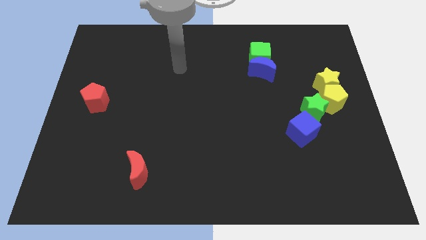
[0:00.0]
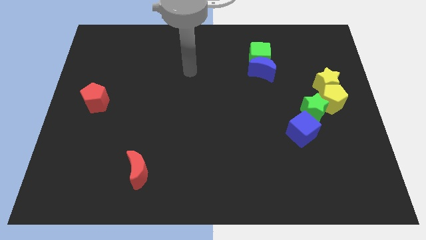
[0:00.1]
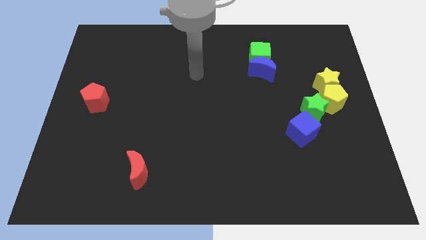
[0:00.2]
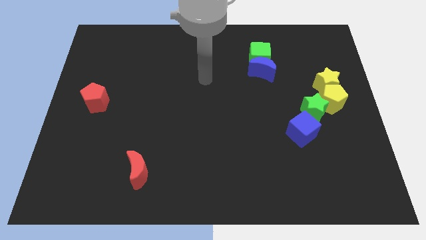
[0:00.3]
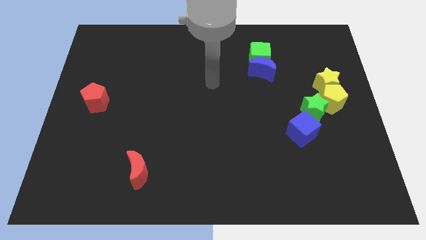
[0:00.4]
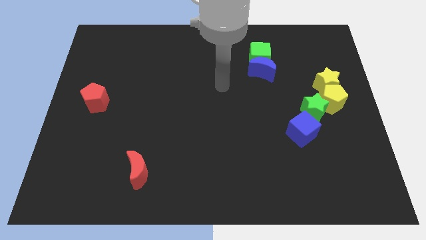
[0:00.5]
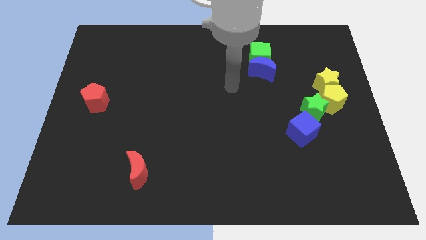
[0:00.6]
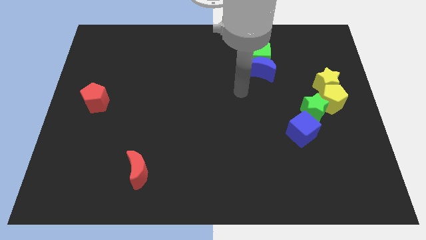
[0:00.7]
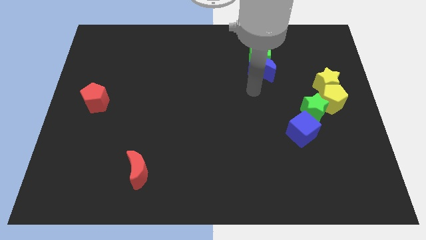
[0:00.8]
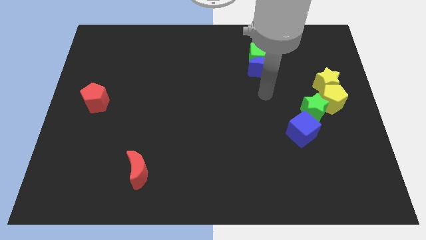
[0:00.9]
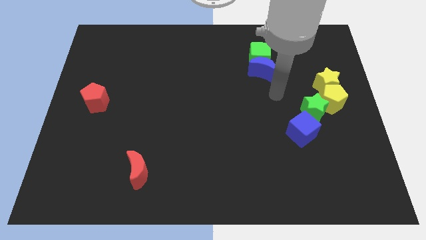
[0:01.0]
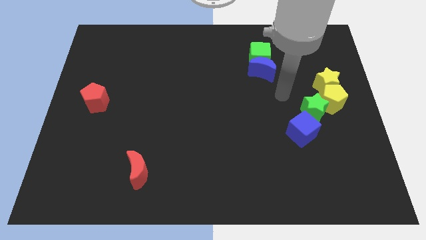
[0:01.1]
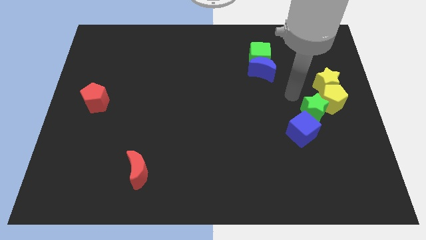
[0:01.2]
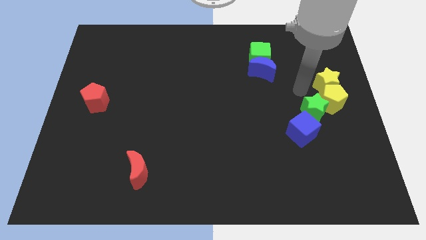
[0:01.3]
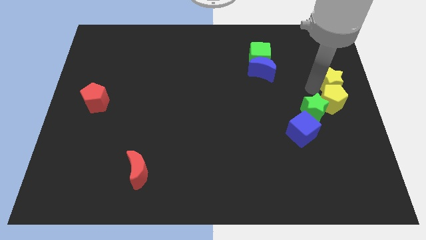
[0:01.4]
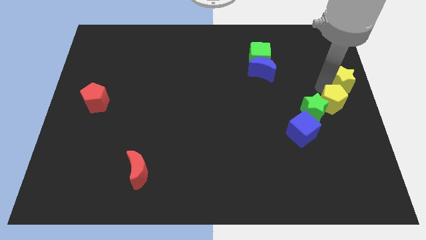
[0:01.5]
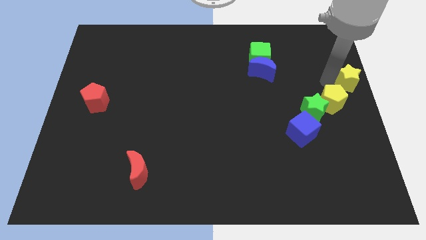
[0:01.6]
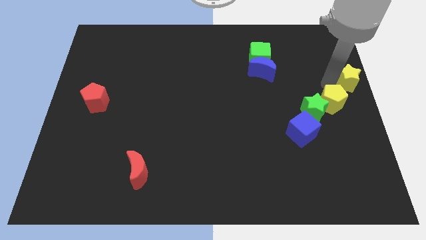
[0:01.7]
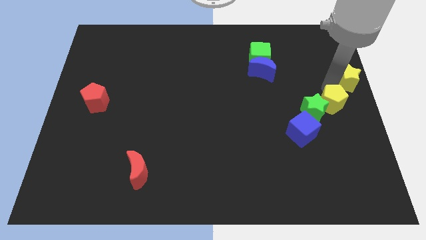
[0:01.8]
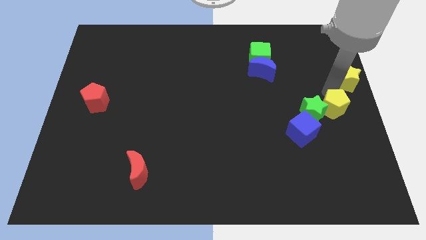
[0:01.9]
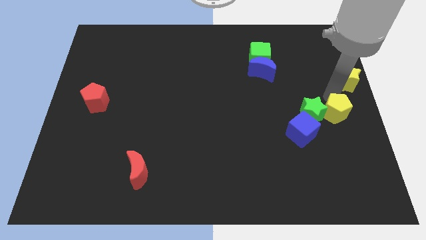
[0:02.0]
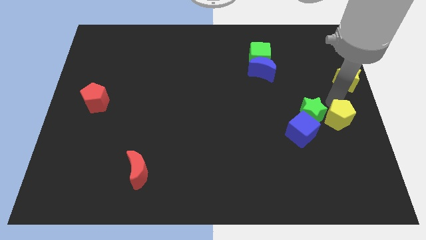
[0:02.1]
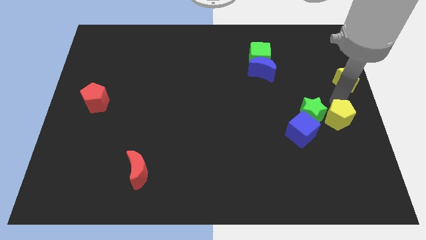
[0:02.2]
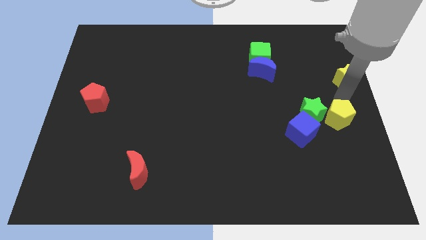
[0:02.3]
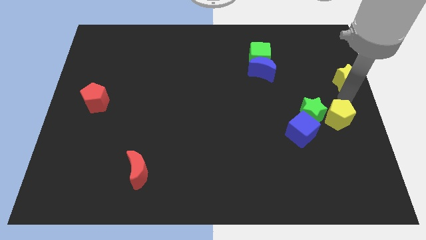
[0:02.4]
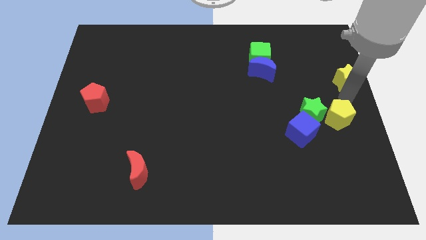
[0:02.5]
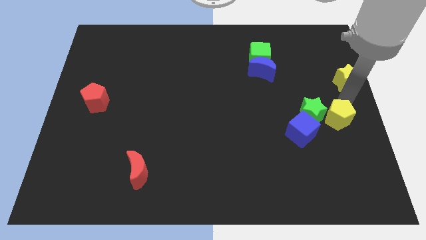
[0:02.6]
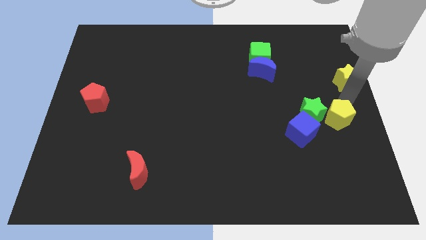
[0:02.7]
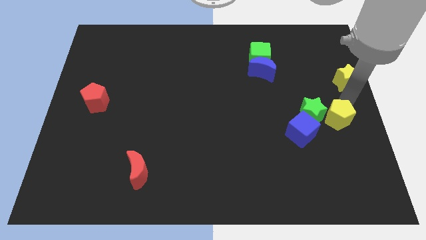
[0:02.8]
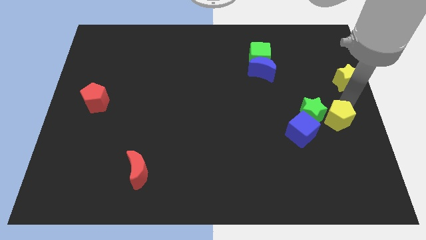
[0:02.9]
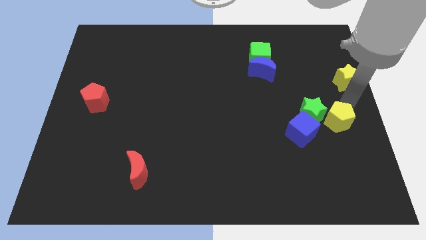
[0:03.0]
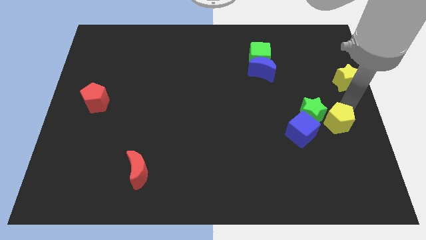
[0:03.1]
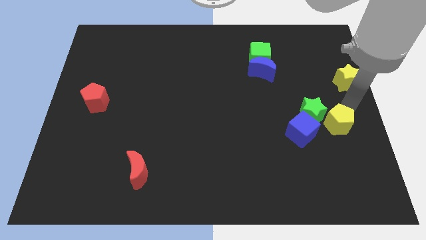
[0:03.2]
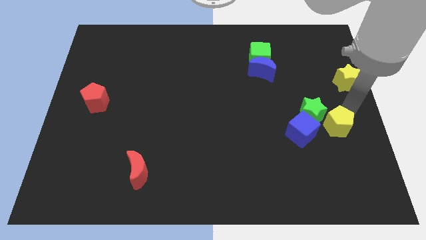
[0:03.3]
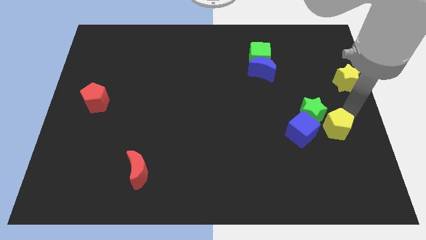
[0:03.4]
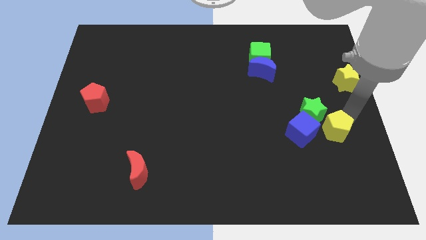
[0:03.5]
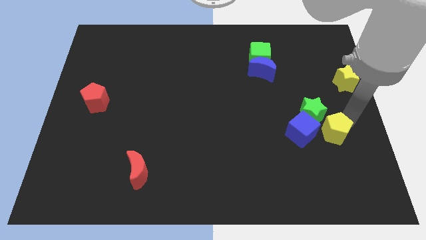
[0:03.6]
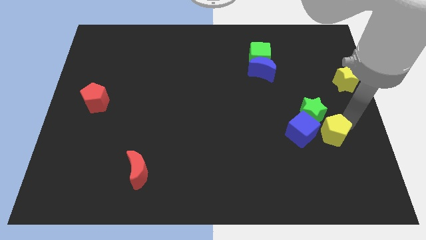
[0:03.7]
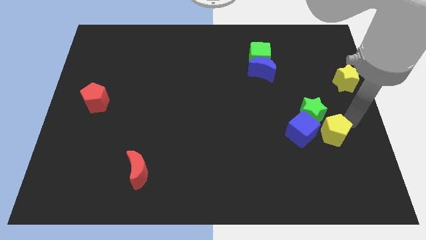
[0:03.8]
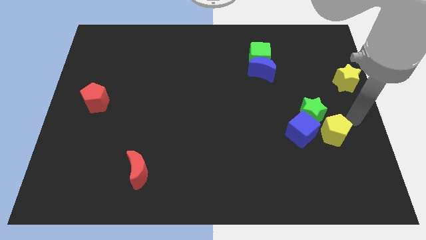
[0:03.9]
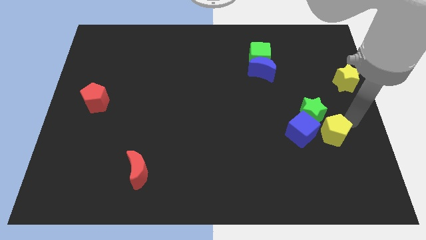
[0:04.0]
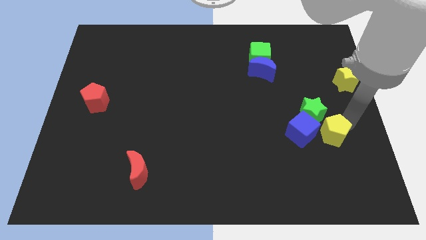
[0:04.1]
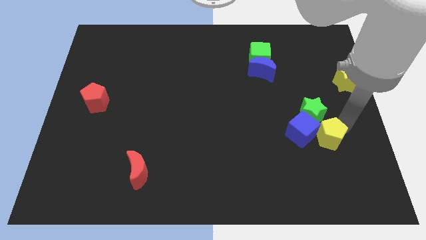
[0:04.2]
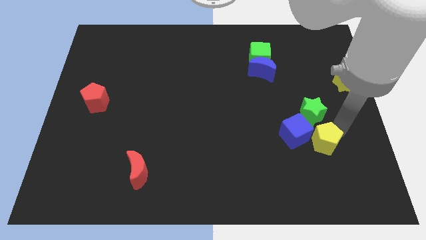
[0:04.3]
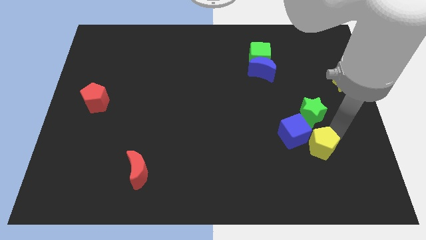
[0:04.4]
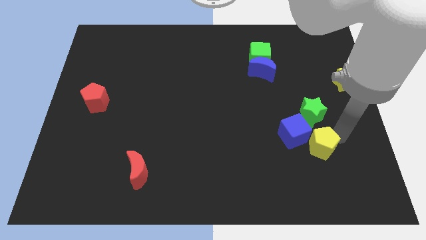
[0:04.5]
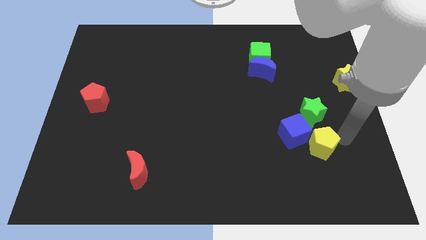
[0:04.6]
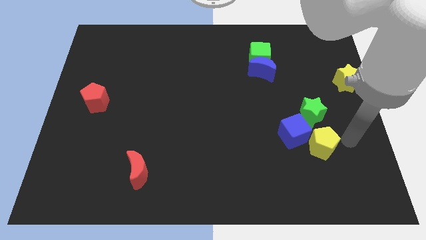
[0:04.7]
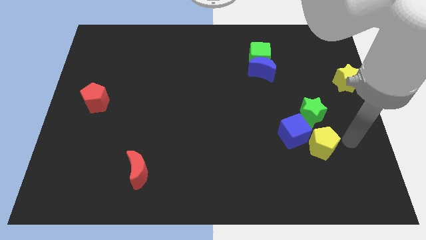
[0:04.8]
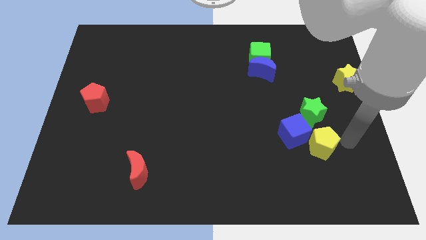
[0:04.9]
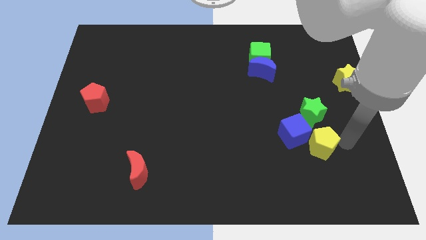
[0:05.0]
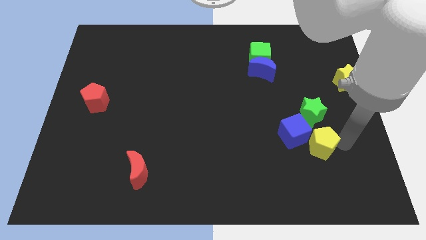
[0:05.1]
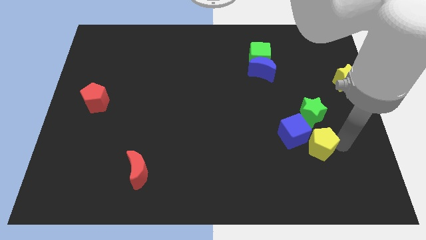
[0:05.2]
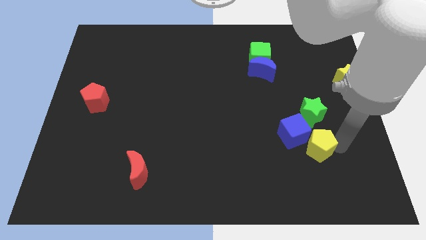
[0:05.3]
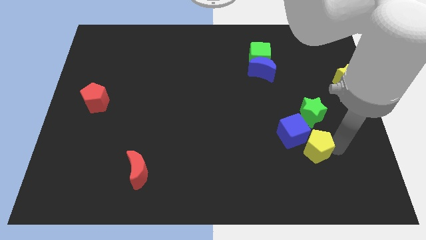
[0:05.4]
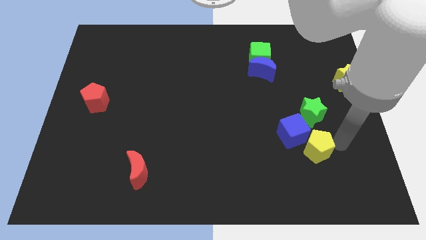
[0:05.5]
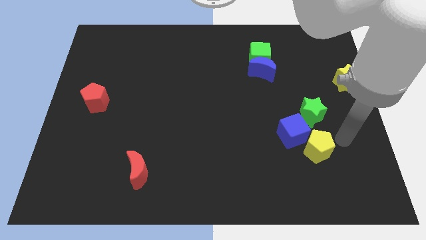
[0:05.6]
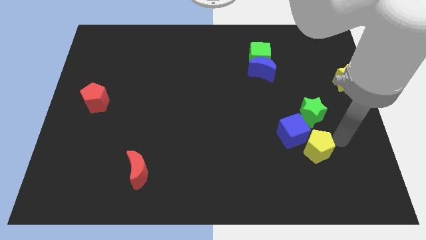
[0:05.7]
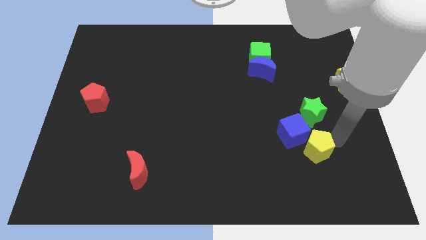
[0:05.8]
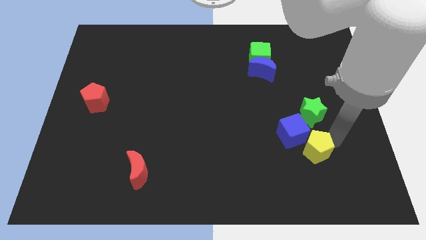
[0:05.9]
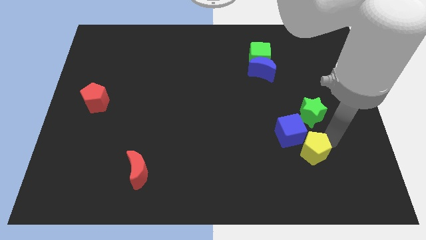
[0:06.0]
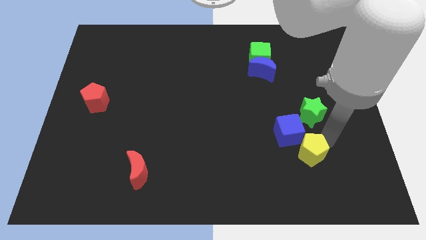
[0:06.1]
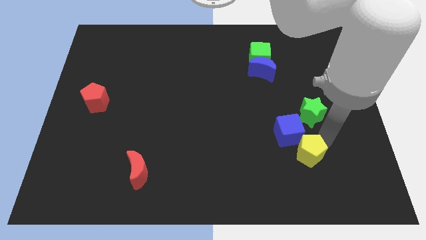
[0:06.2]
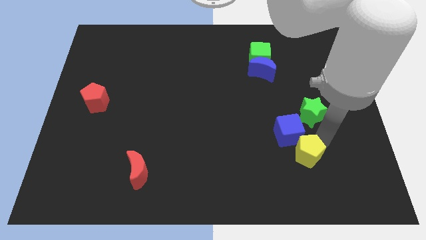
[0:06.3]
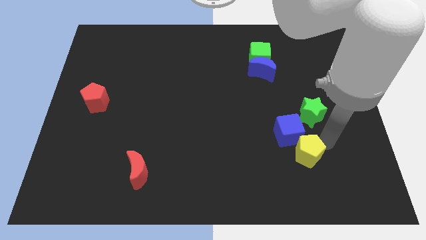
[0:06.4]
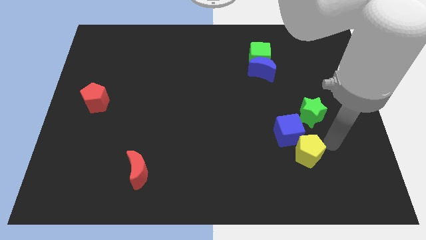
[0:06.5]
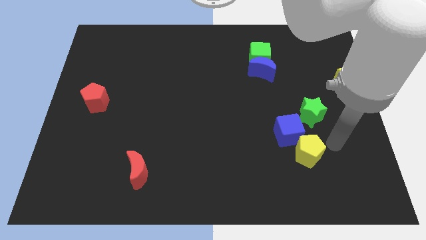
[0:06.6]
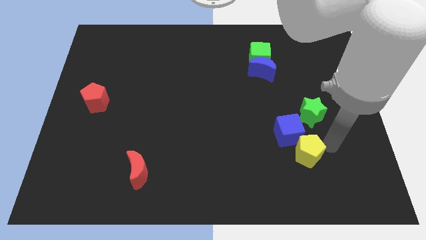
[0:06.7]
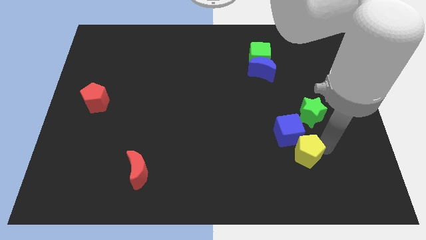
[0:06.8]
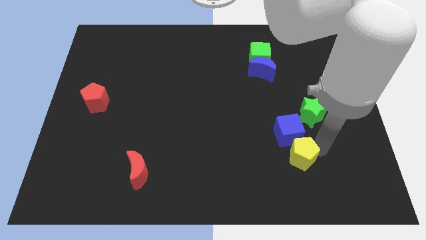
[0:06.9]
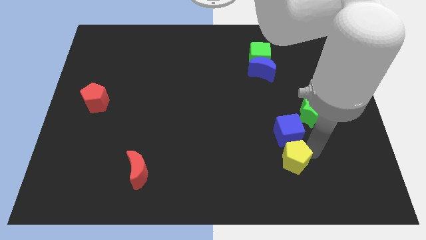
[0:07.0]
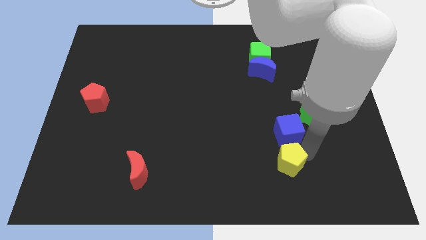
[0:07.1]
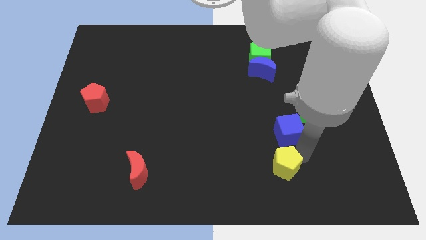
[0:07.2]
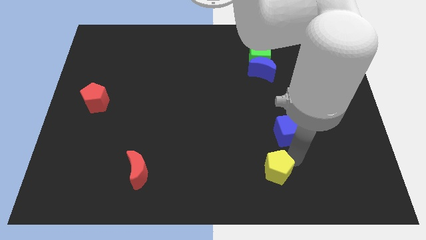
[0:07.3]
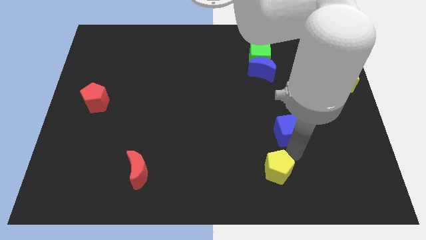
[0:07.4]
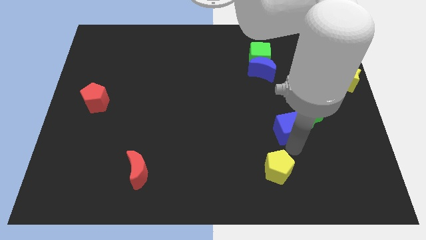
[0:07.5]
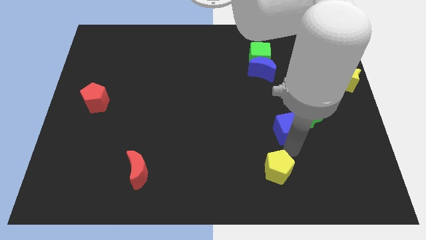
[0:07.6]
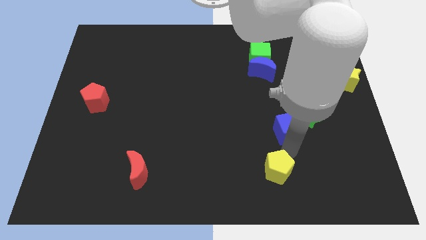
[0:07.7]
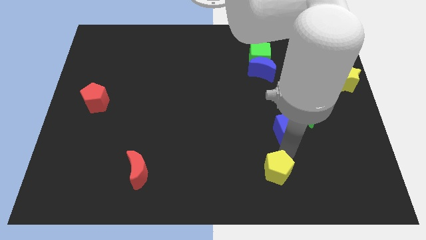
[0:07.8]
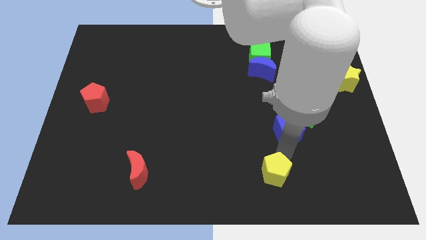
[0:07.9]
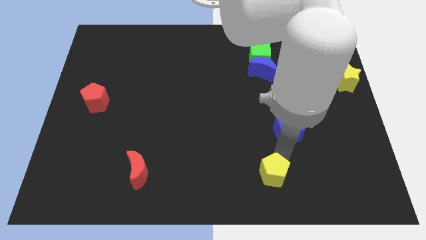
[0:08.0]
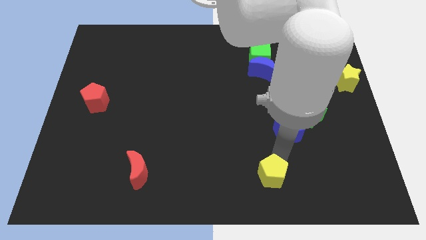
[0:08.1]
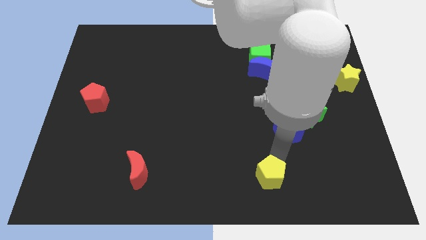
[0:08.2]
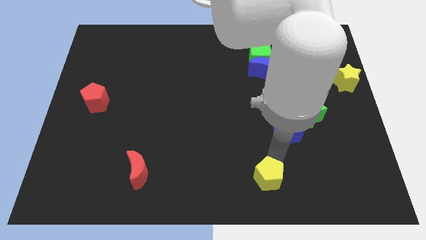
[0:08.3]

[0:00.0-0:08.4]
push the yellow pentagon to the bottom side
